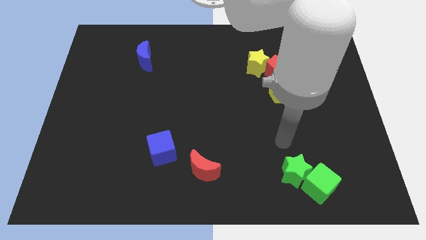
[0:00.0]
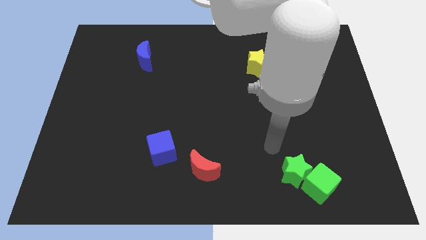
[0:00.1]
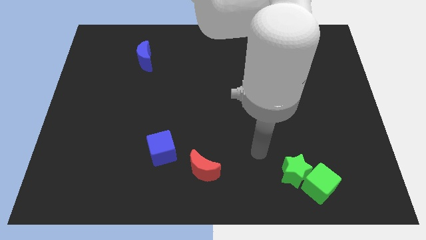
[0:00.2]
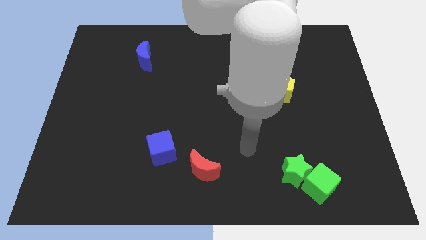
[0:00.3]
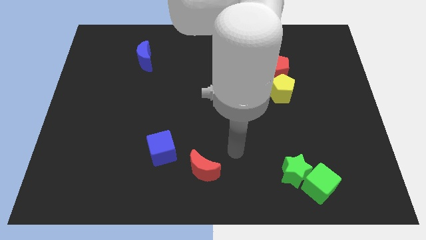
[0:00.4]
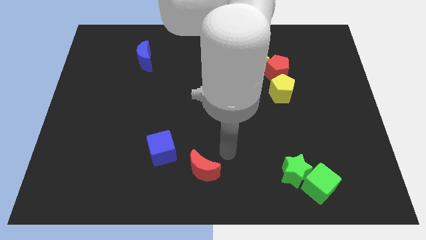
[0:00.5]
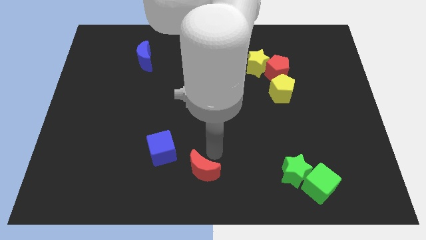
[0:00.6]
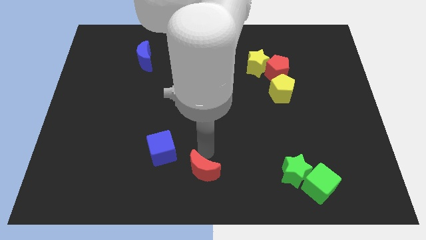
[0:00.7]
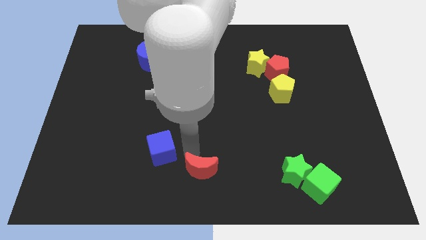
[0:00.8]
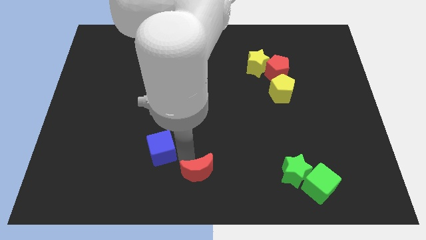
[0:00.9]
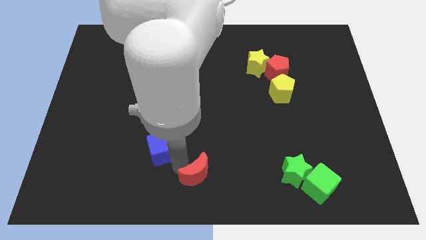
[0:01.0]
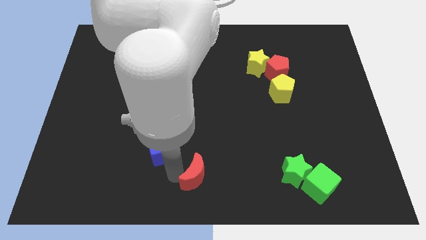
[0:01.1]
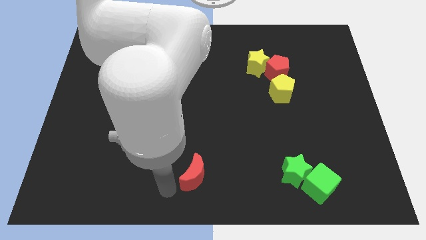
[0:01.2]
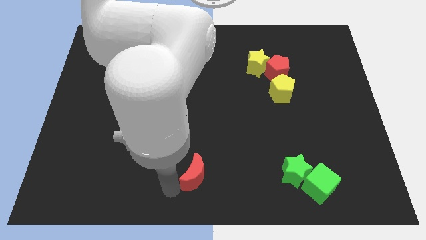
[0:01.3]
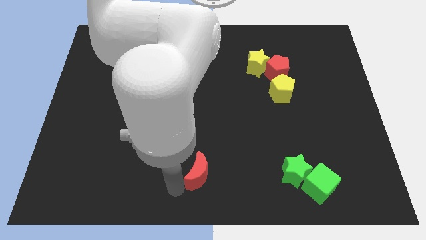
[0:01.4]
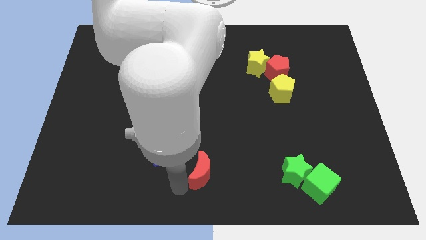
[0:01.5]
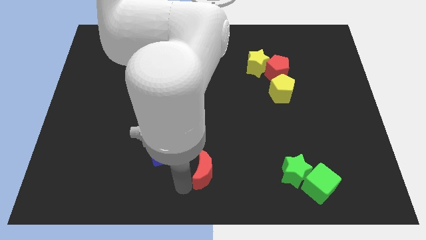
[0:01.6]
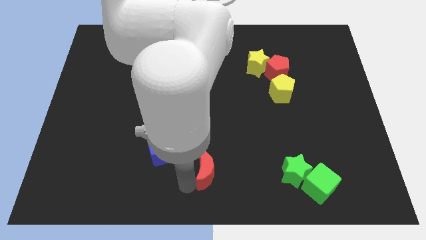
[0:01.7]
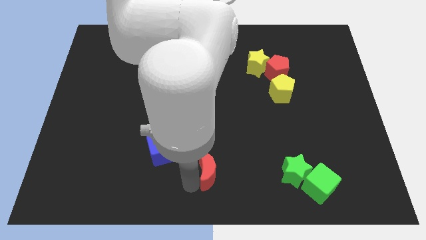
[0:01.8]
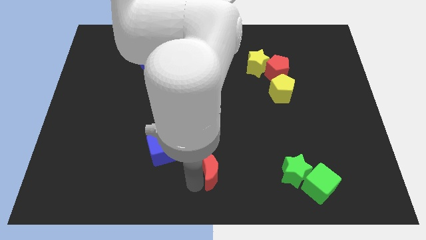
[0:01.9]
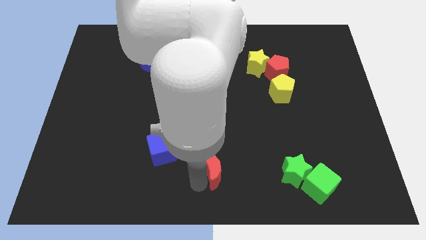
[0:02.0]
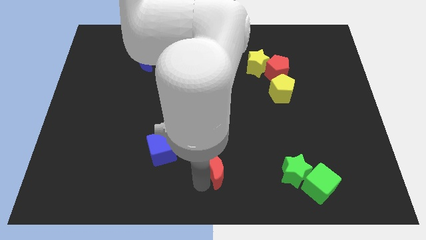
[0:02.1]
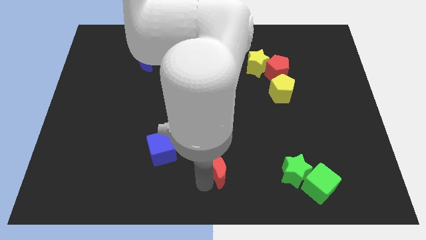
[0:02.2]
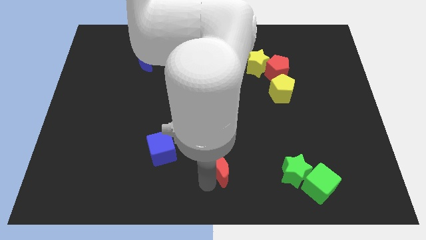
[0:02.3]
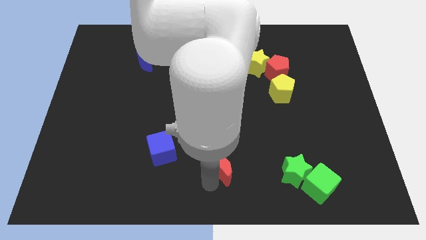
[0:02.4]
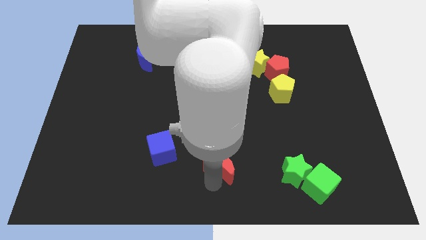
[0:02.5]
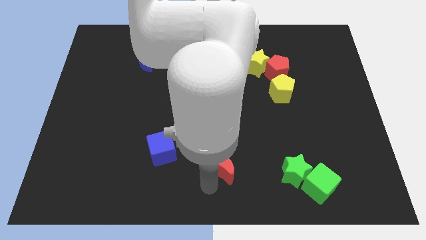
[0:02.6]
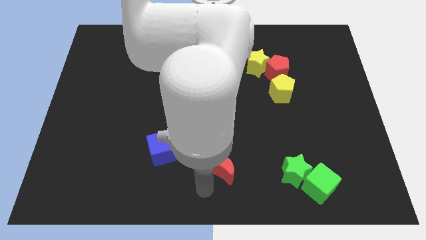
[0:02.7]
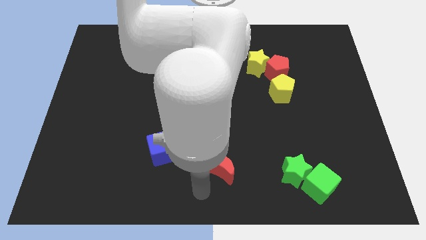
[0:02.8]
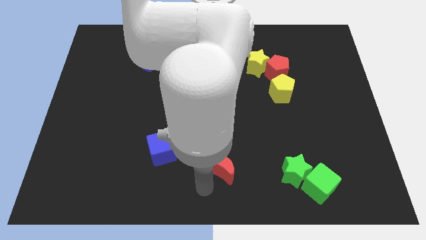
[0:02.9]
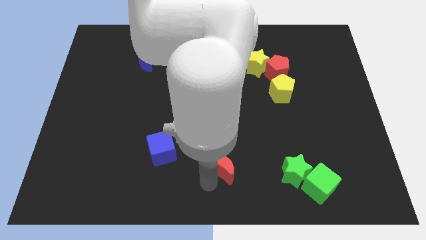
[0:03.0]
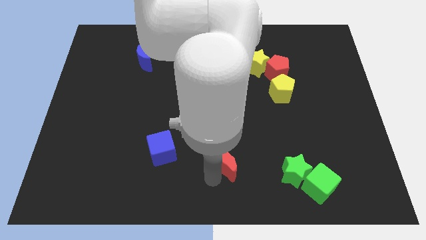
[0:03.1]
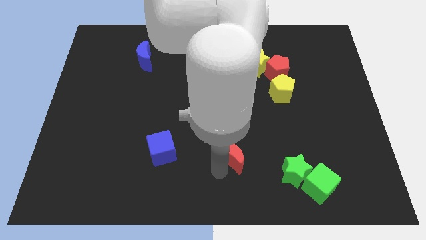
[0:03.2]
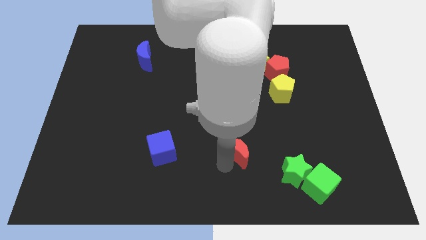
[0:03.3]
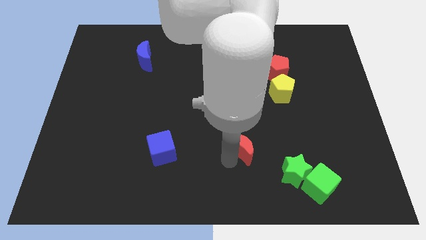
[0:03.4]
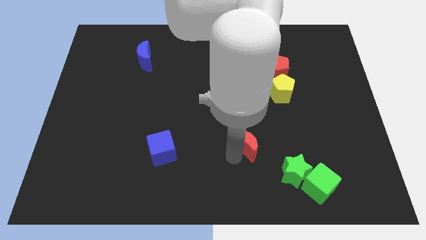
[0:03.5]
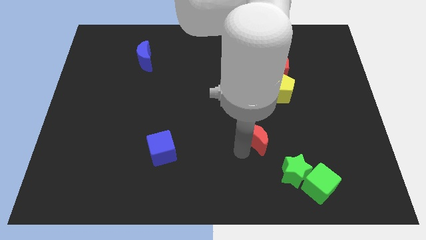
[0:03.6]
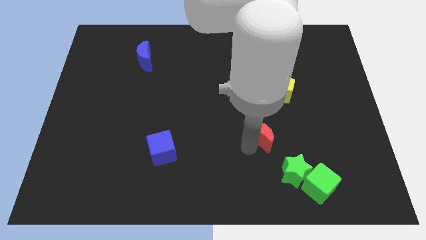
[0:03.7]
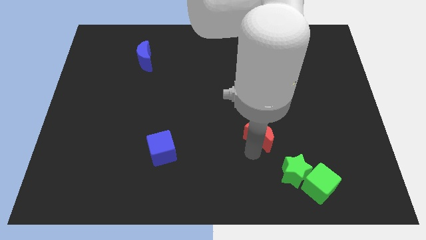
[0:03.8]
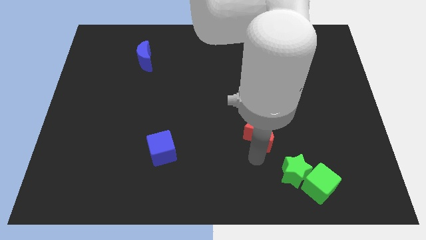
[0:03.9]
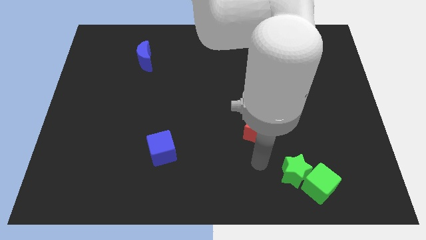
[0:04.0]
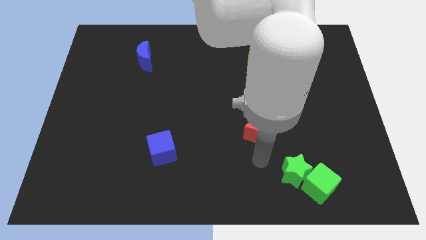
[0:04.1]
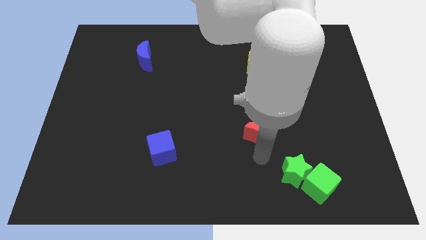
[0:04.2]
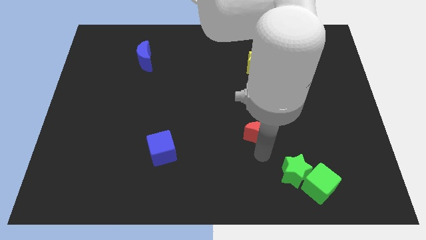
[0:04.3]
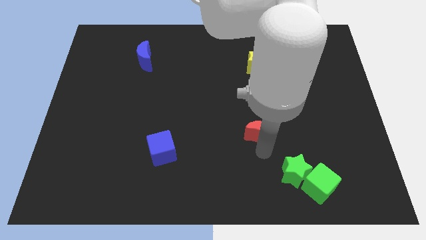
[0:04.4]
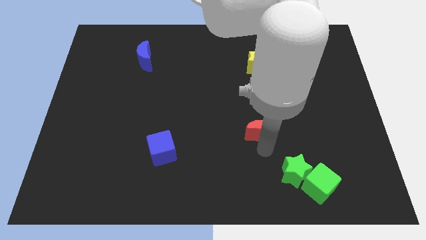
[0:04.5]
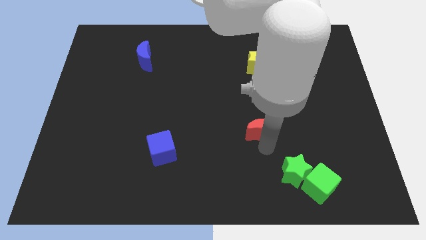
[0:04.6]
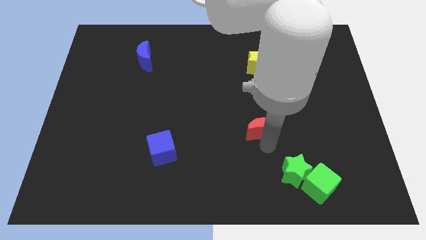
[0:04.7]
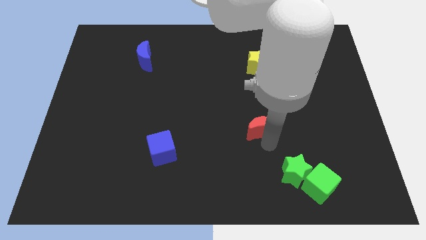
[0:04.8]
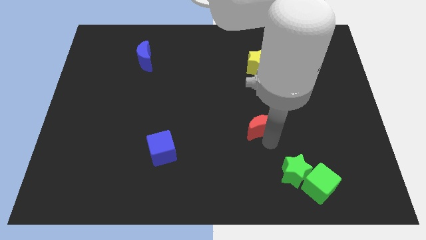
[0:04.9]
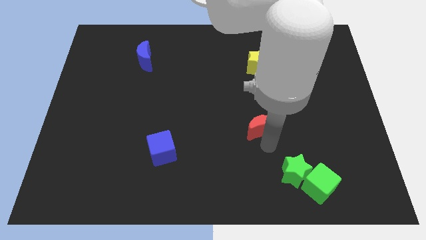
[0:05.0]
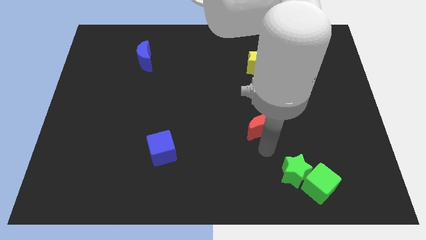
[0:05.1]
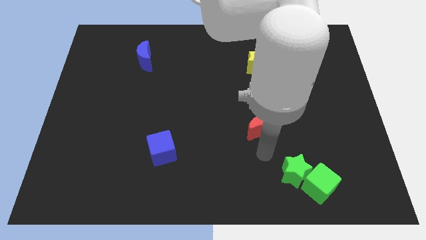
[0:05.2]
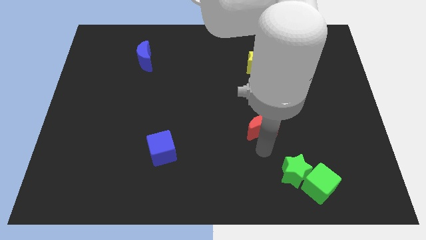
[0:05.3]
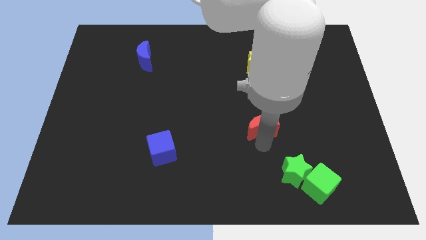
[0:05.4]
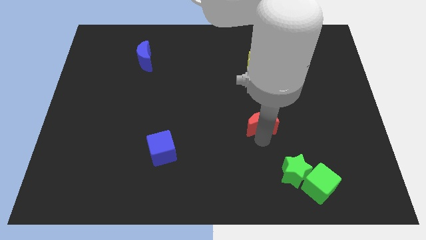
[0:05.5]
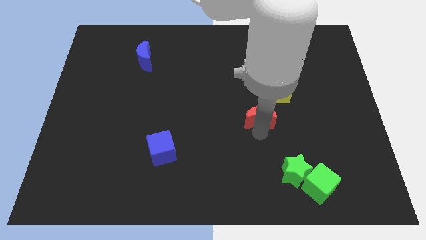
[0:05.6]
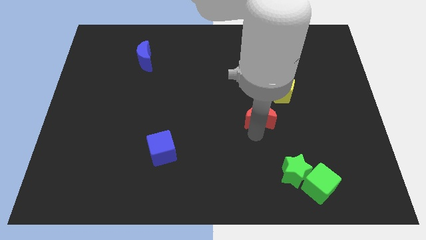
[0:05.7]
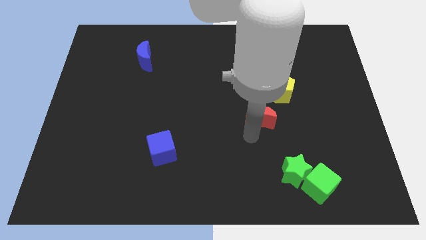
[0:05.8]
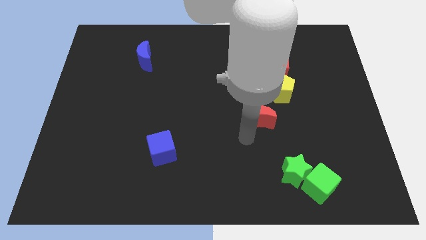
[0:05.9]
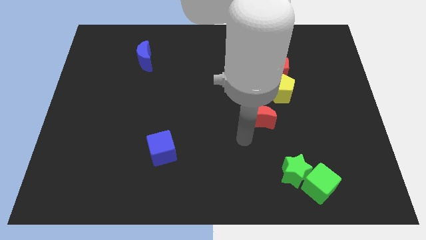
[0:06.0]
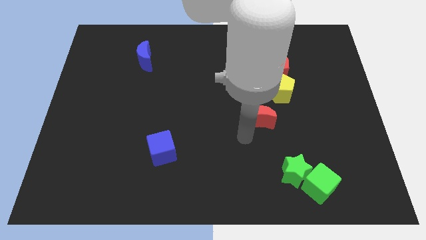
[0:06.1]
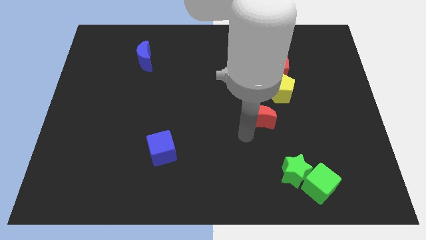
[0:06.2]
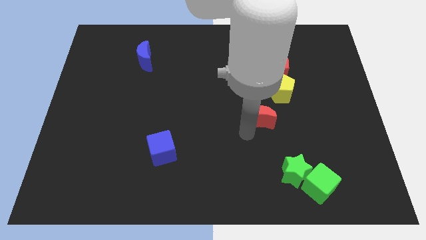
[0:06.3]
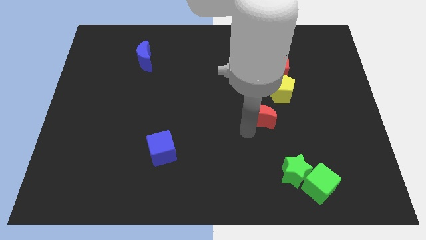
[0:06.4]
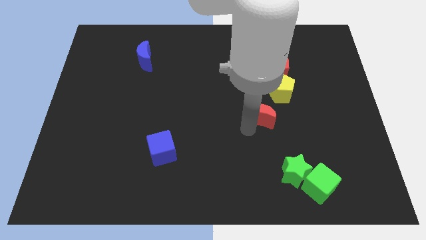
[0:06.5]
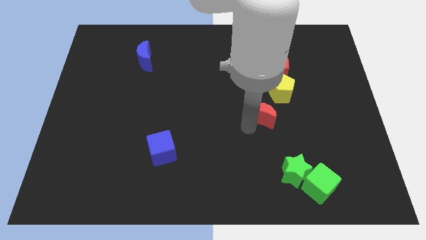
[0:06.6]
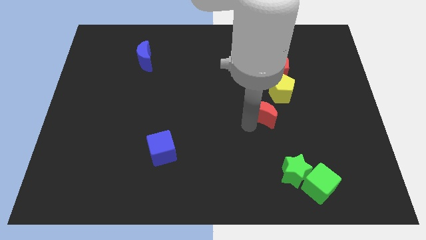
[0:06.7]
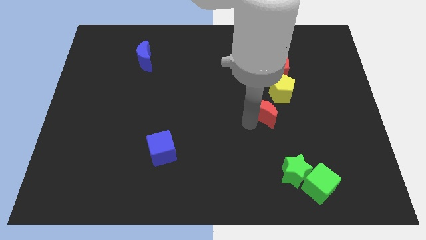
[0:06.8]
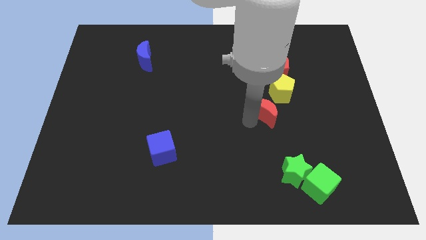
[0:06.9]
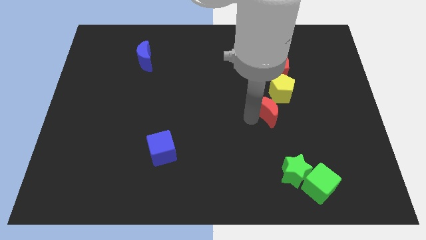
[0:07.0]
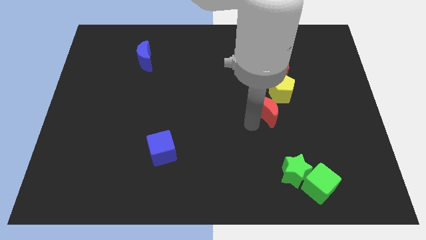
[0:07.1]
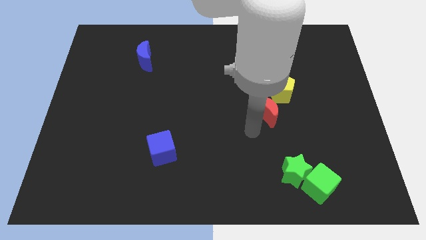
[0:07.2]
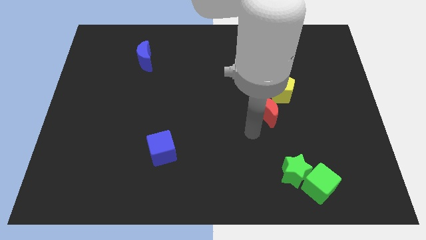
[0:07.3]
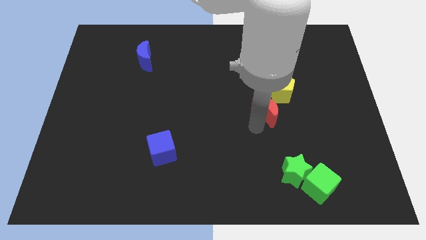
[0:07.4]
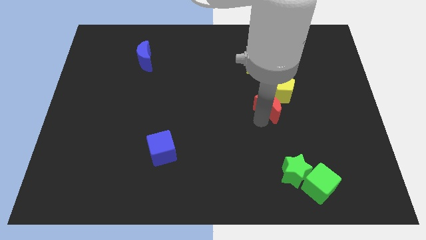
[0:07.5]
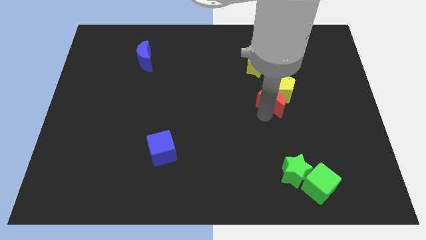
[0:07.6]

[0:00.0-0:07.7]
push the red moon towards the yellow pentagon
